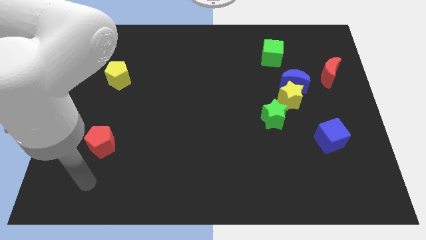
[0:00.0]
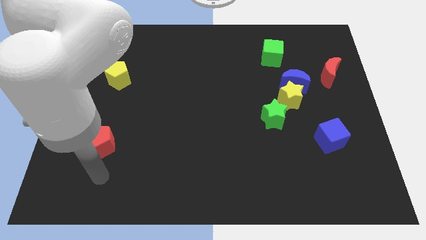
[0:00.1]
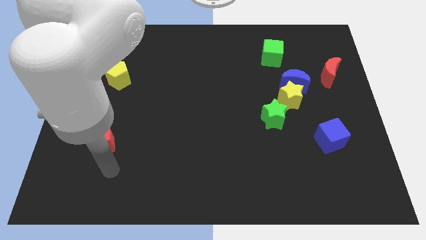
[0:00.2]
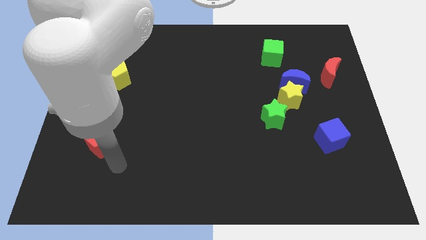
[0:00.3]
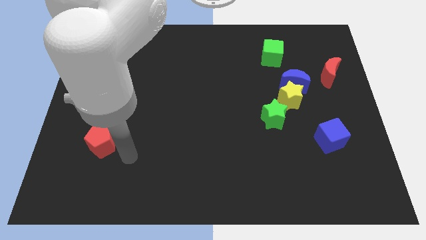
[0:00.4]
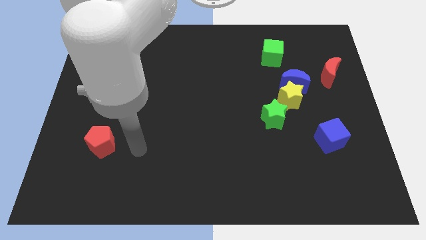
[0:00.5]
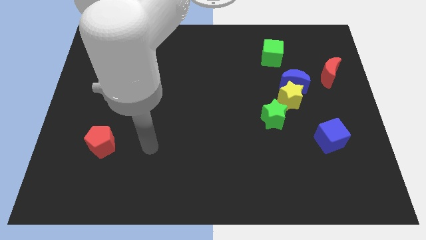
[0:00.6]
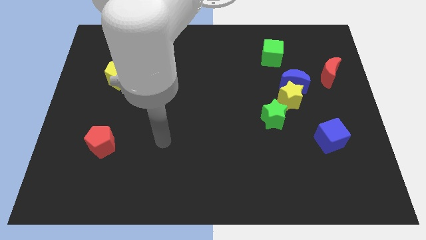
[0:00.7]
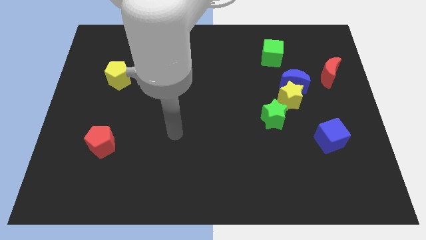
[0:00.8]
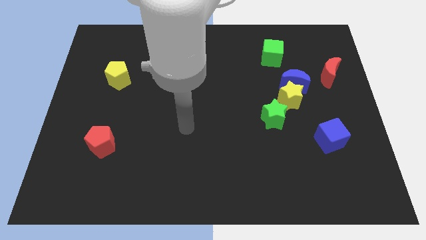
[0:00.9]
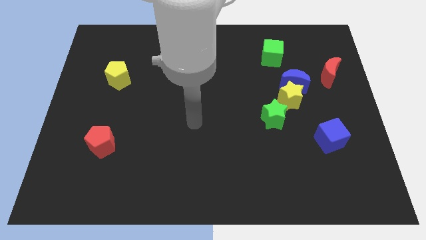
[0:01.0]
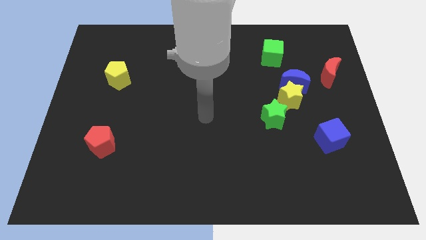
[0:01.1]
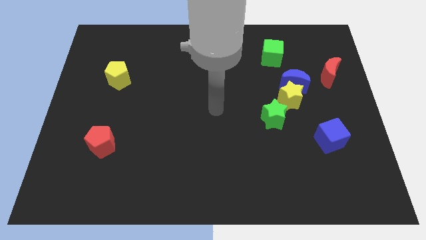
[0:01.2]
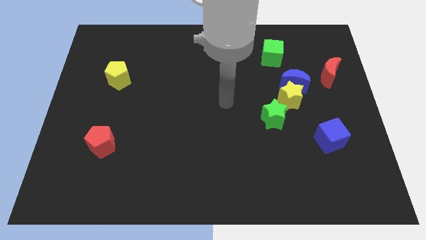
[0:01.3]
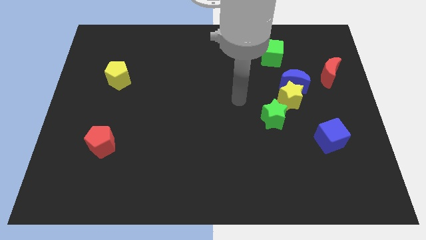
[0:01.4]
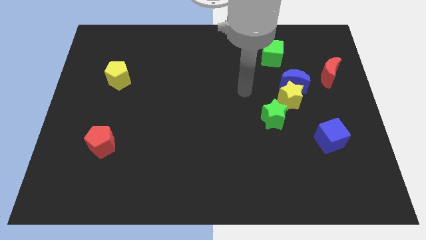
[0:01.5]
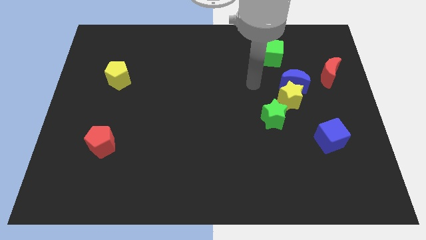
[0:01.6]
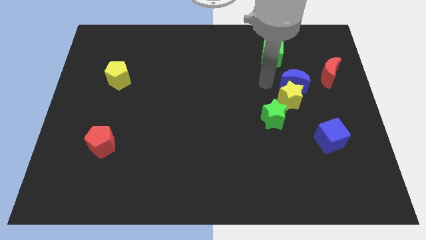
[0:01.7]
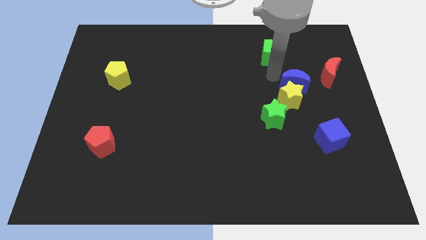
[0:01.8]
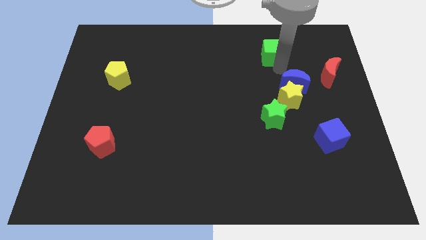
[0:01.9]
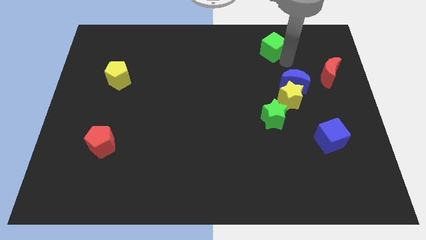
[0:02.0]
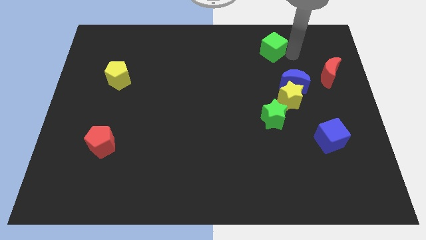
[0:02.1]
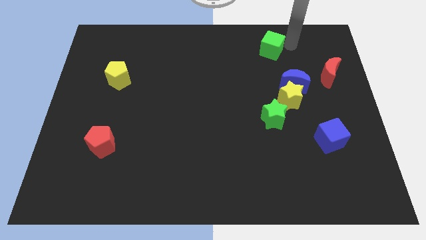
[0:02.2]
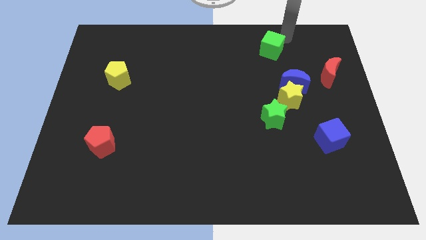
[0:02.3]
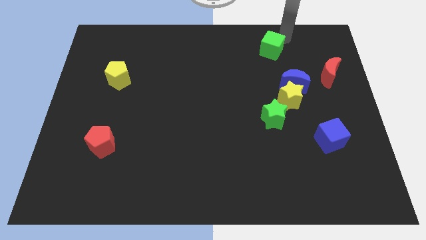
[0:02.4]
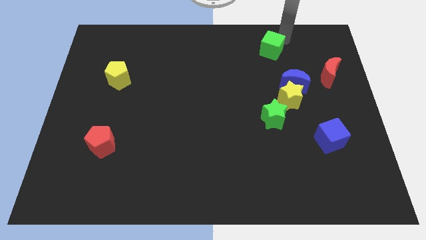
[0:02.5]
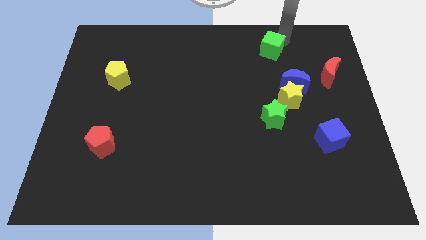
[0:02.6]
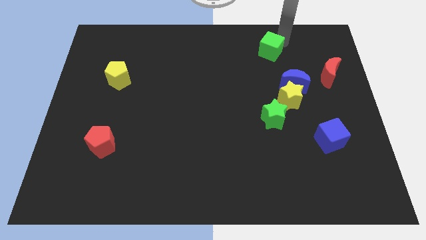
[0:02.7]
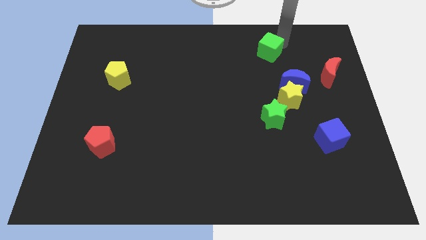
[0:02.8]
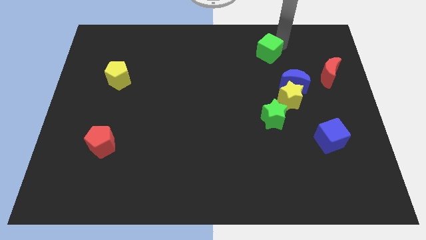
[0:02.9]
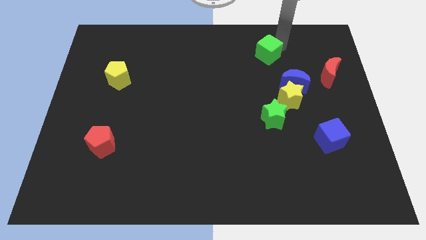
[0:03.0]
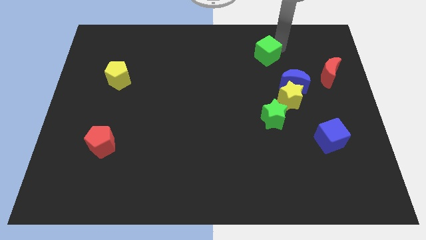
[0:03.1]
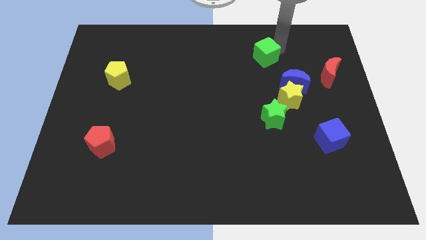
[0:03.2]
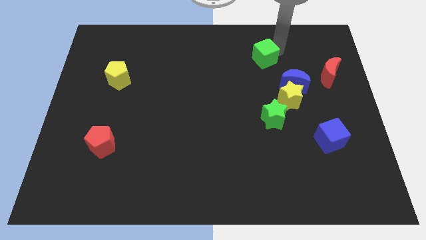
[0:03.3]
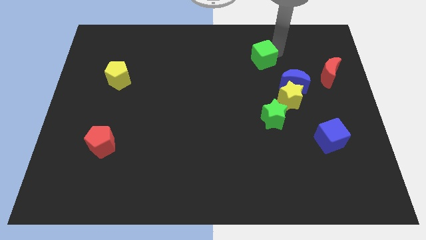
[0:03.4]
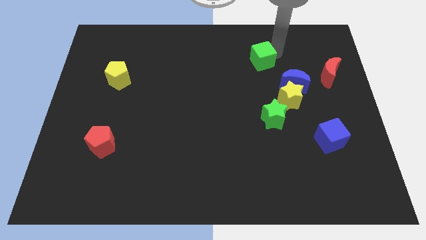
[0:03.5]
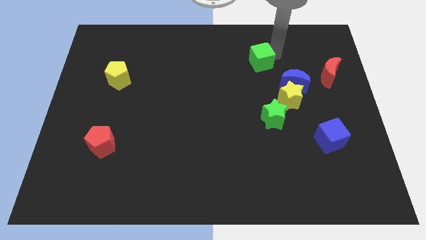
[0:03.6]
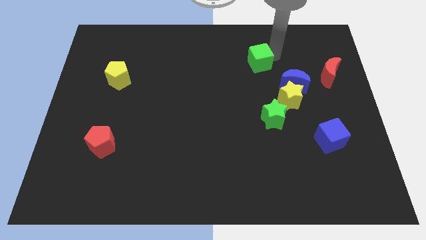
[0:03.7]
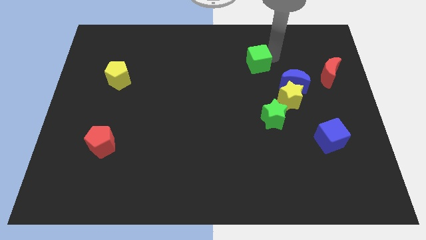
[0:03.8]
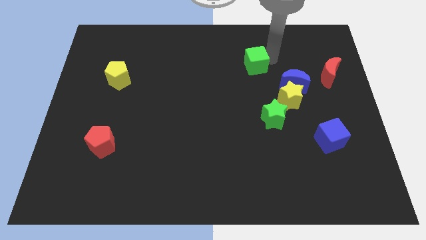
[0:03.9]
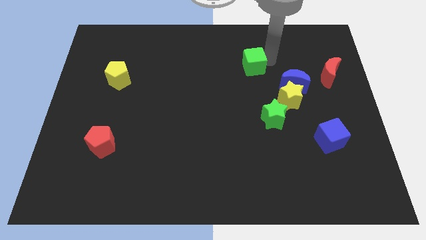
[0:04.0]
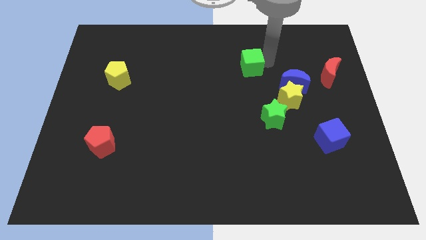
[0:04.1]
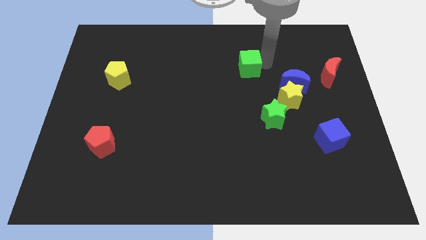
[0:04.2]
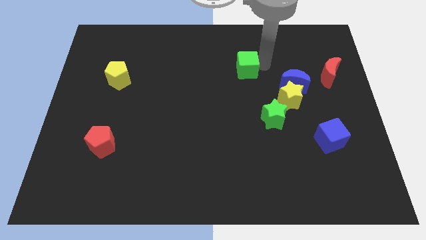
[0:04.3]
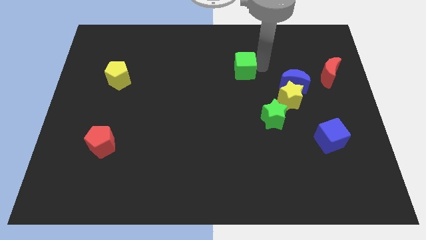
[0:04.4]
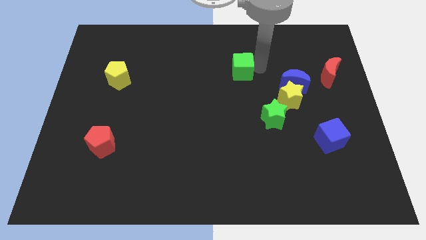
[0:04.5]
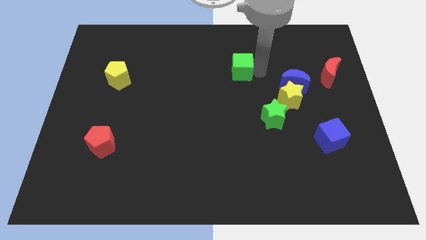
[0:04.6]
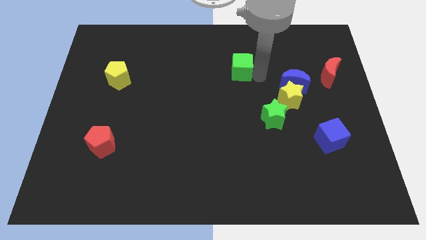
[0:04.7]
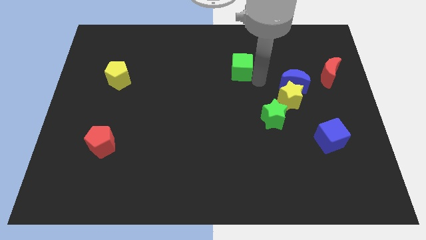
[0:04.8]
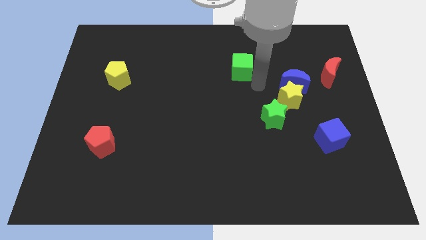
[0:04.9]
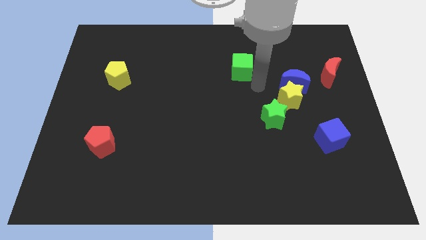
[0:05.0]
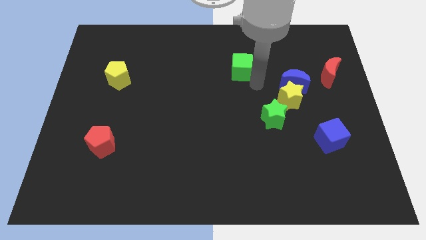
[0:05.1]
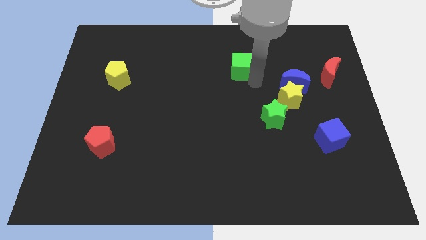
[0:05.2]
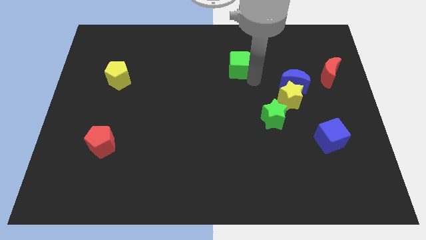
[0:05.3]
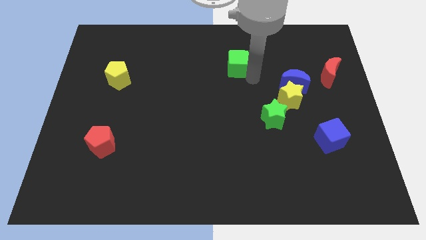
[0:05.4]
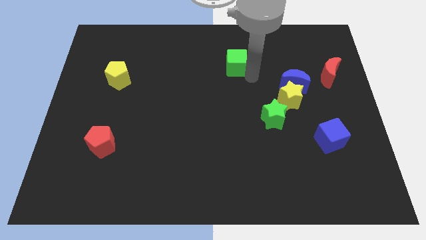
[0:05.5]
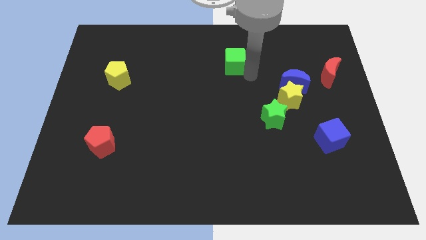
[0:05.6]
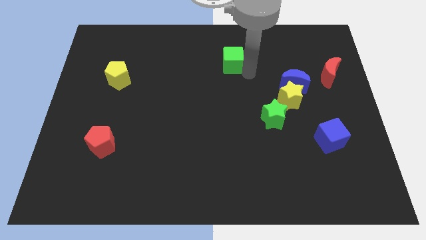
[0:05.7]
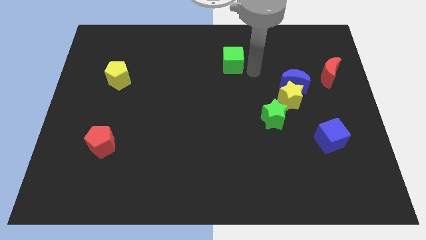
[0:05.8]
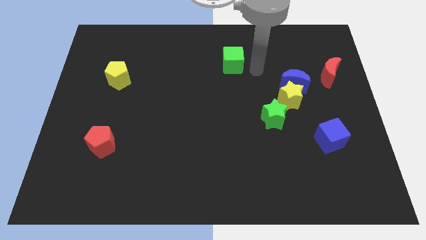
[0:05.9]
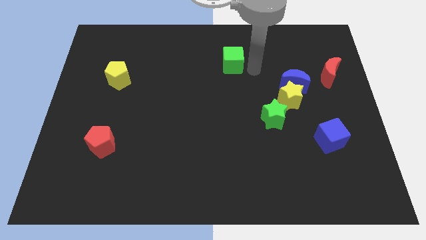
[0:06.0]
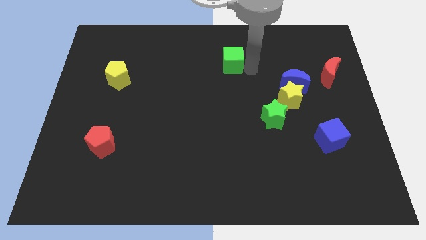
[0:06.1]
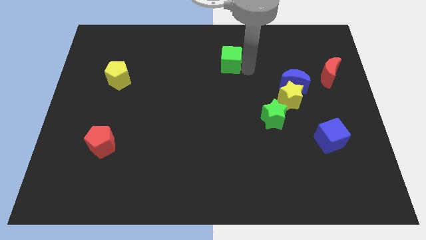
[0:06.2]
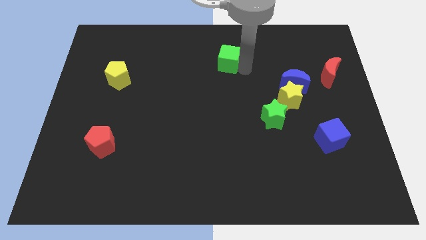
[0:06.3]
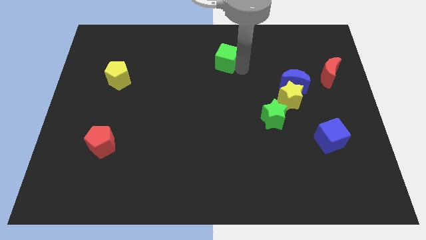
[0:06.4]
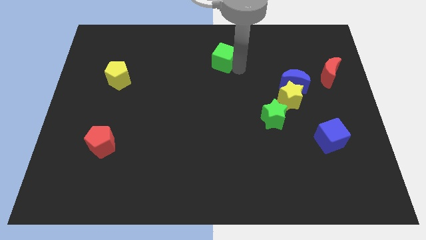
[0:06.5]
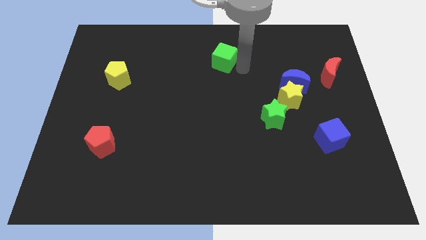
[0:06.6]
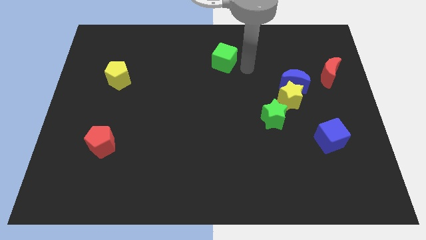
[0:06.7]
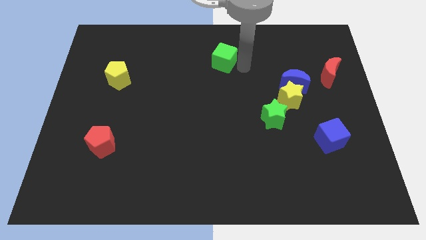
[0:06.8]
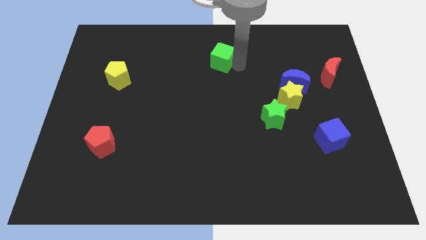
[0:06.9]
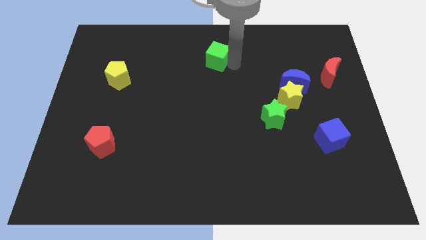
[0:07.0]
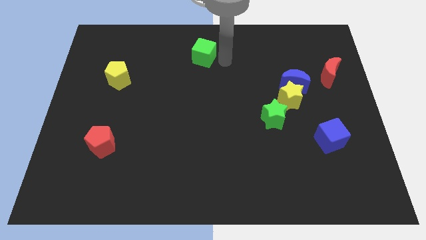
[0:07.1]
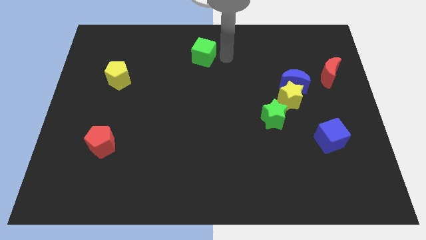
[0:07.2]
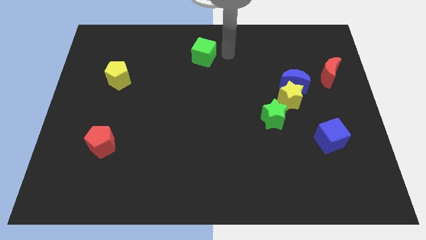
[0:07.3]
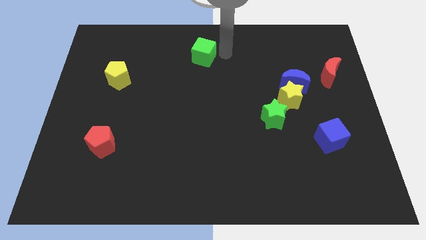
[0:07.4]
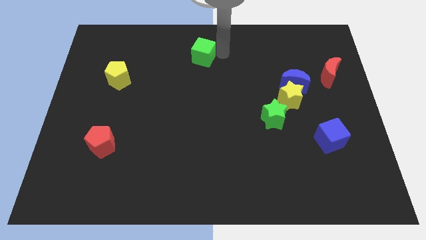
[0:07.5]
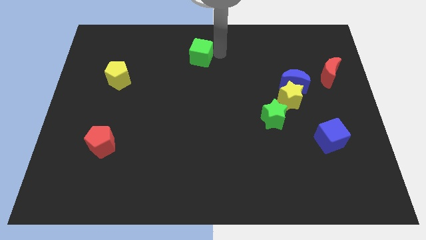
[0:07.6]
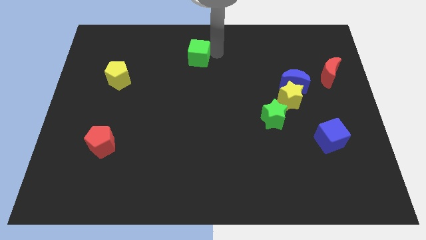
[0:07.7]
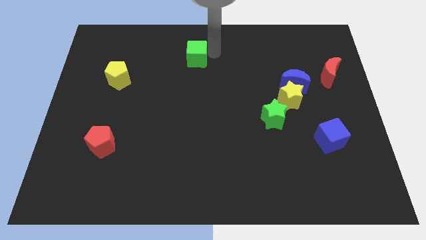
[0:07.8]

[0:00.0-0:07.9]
move the green cube left

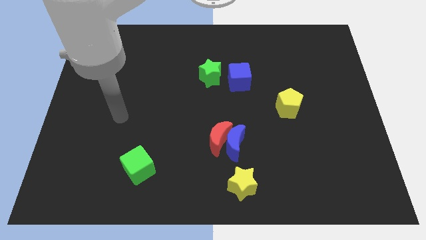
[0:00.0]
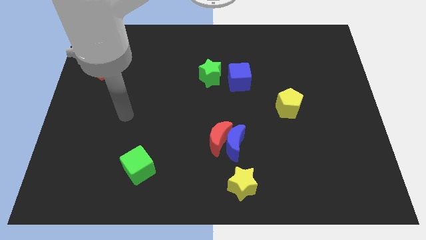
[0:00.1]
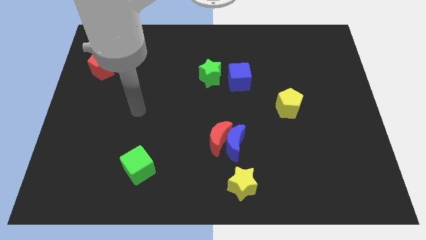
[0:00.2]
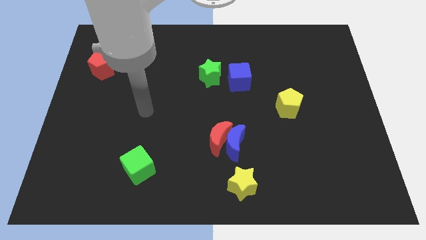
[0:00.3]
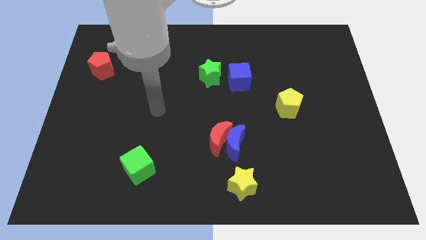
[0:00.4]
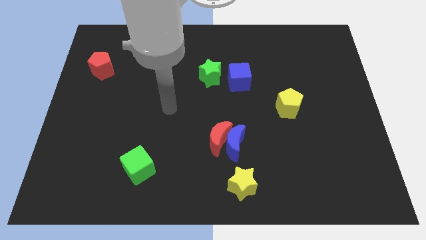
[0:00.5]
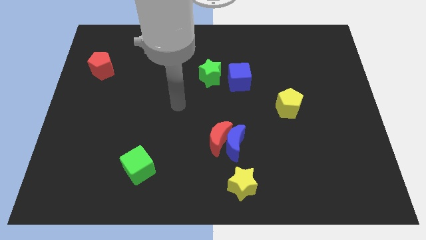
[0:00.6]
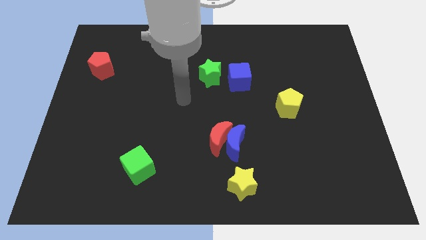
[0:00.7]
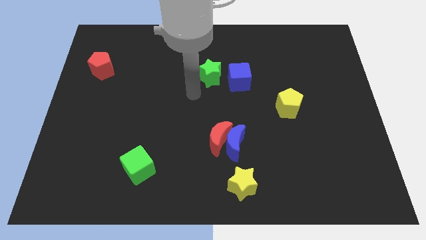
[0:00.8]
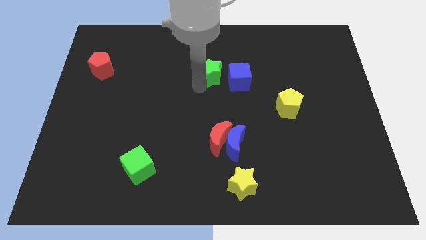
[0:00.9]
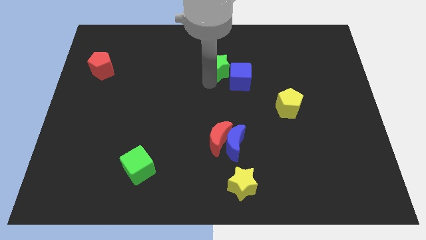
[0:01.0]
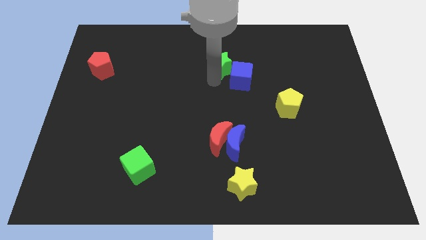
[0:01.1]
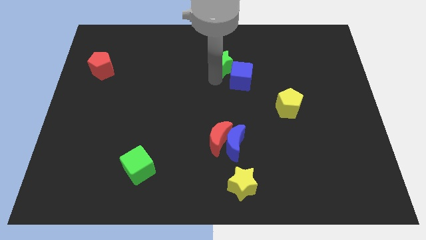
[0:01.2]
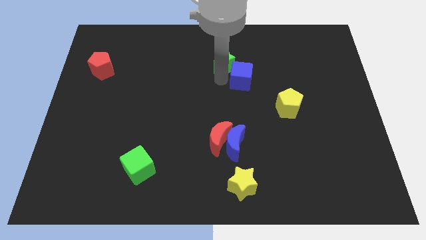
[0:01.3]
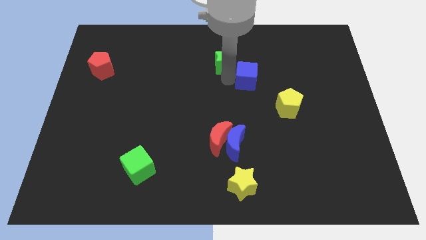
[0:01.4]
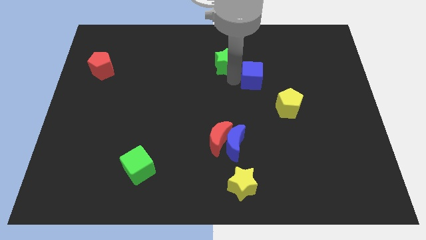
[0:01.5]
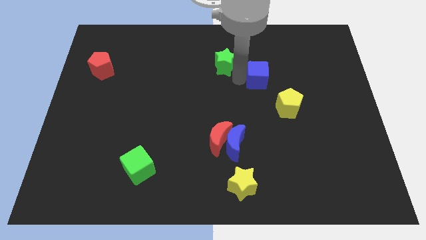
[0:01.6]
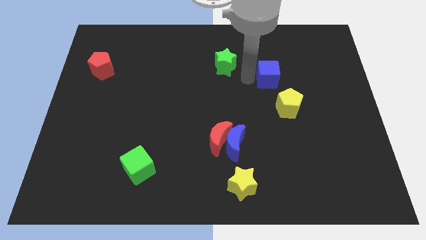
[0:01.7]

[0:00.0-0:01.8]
slightly move the blue cube right
